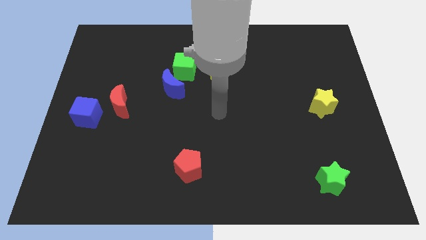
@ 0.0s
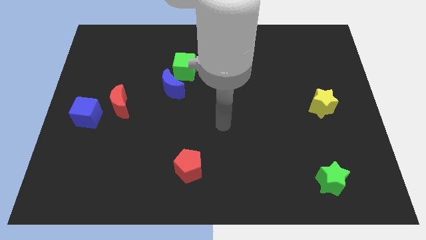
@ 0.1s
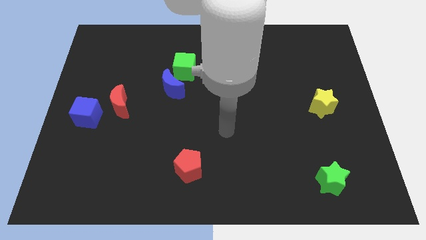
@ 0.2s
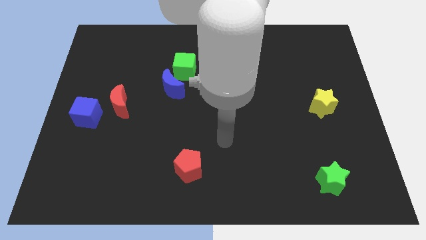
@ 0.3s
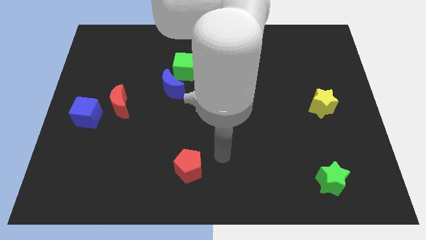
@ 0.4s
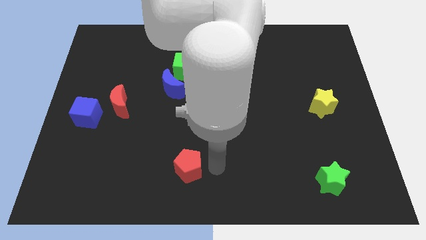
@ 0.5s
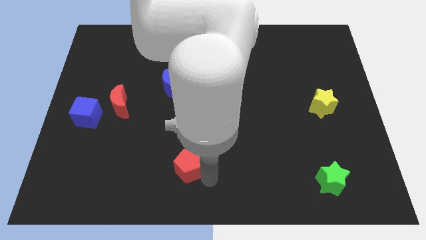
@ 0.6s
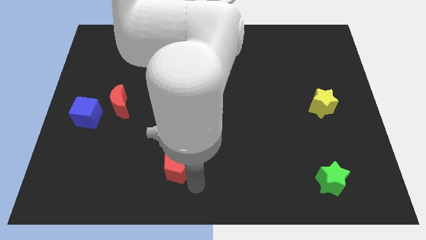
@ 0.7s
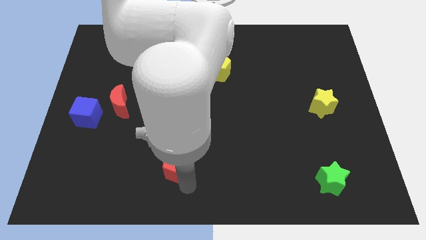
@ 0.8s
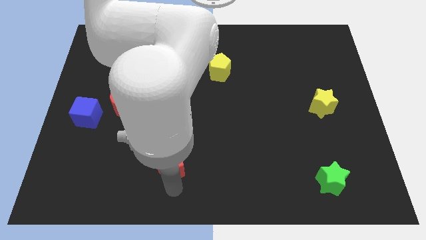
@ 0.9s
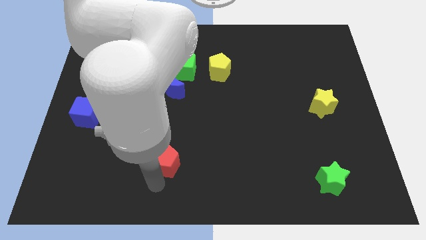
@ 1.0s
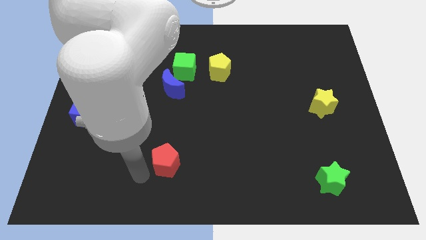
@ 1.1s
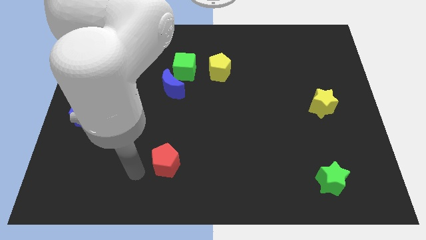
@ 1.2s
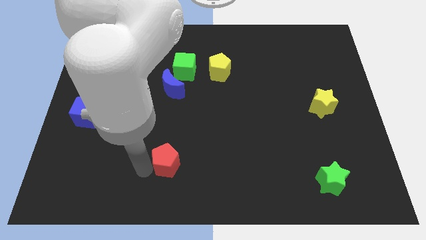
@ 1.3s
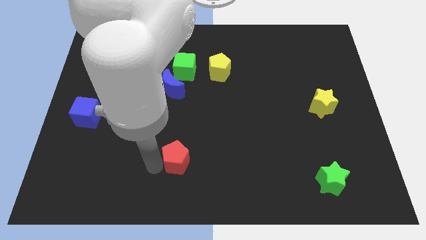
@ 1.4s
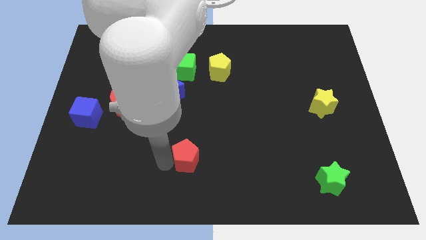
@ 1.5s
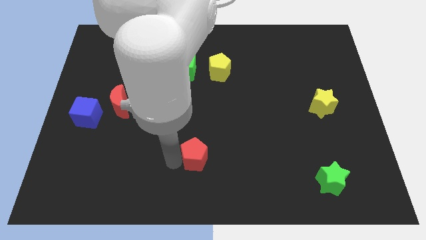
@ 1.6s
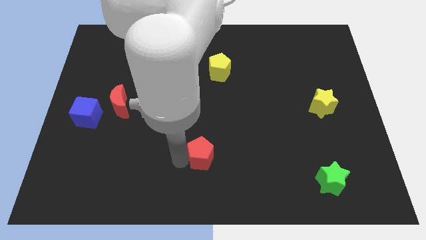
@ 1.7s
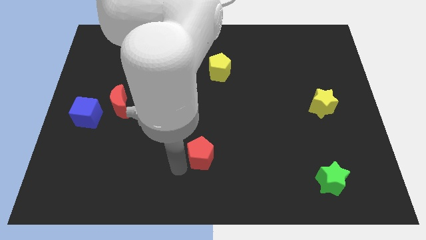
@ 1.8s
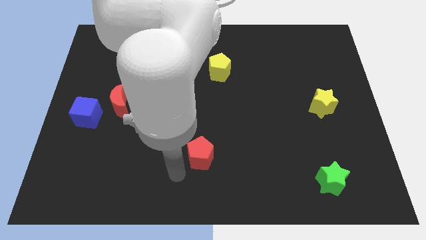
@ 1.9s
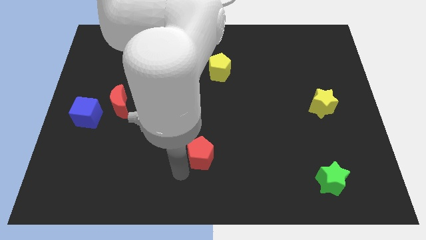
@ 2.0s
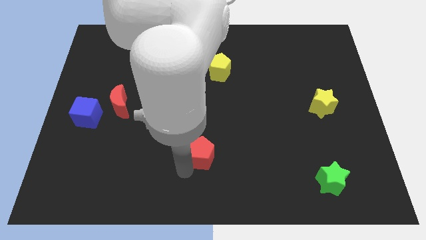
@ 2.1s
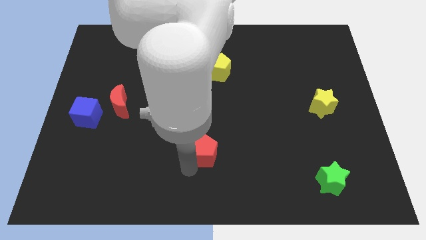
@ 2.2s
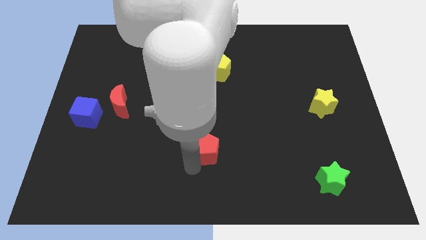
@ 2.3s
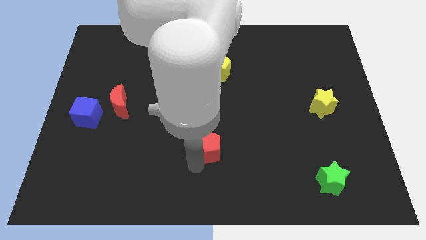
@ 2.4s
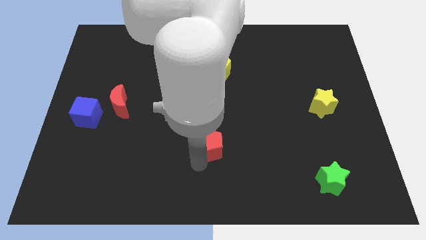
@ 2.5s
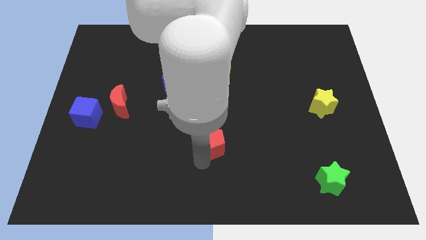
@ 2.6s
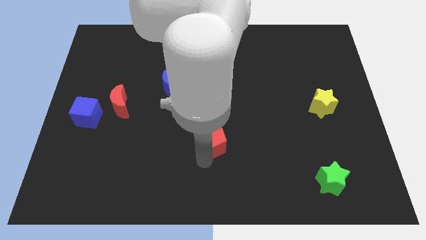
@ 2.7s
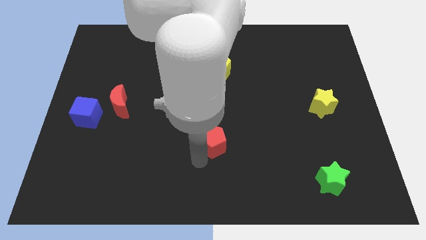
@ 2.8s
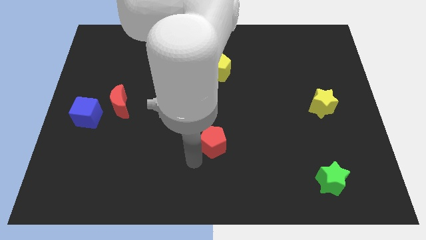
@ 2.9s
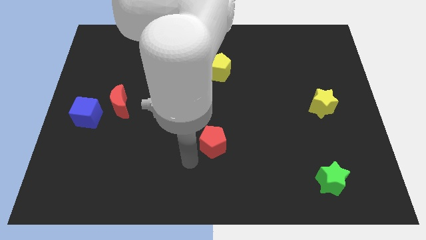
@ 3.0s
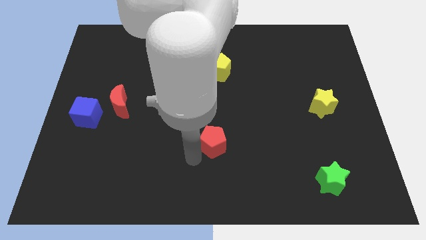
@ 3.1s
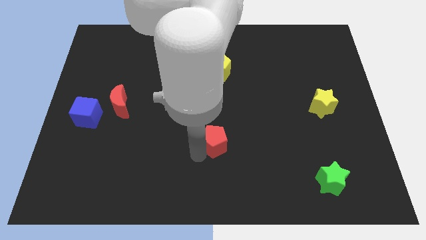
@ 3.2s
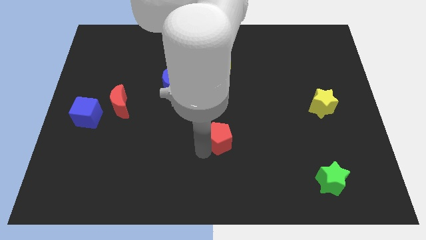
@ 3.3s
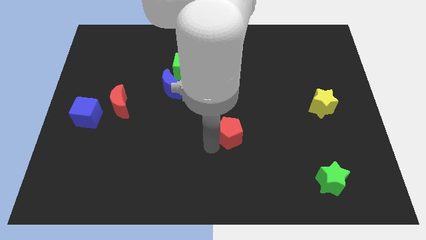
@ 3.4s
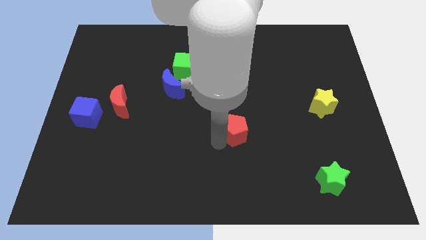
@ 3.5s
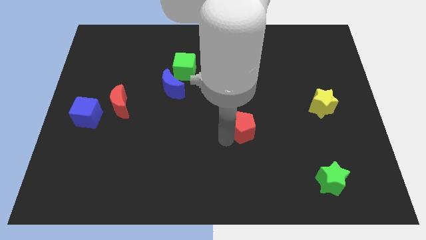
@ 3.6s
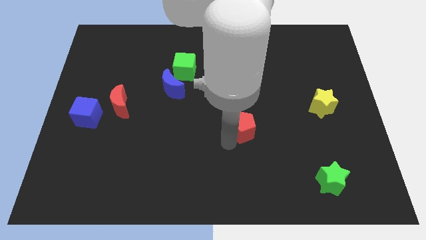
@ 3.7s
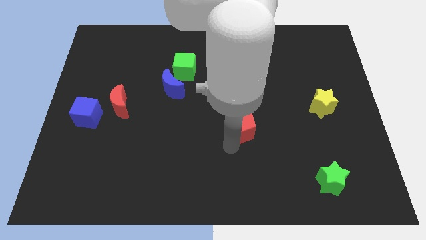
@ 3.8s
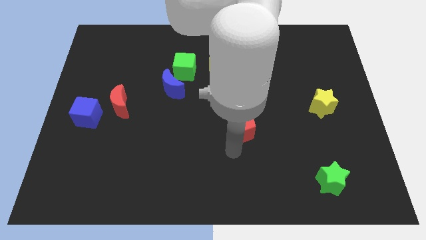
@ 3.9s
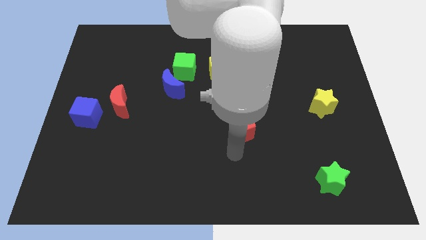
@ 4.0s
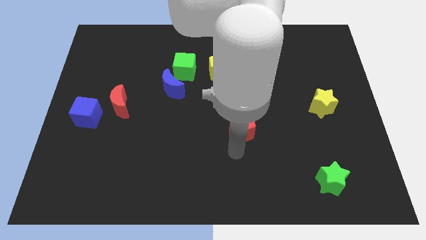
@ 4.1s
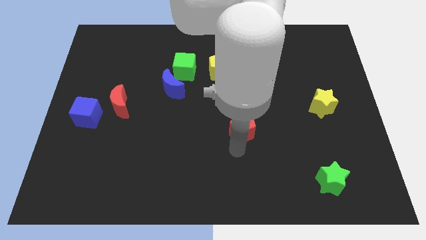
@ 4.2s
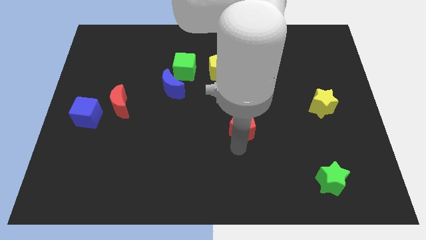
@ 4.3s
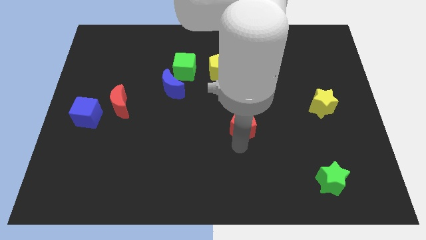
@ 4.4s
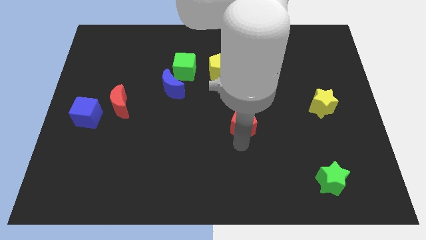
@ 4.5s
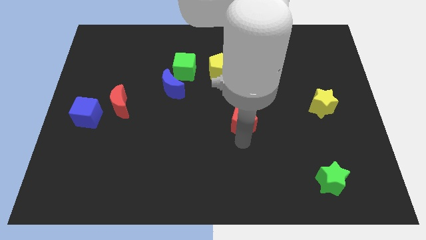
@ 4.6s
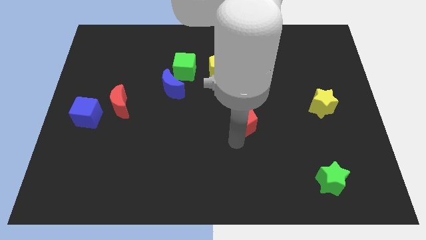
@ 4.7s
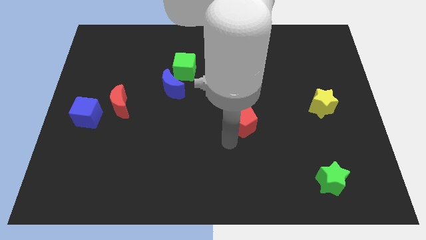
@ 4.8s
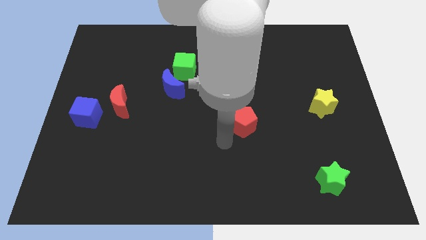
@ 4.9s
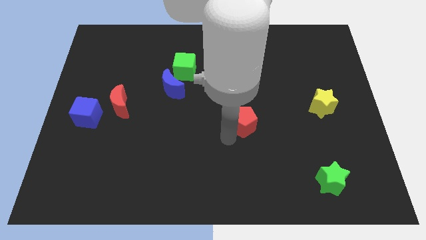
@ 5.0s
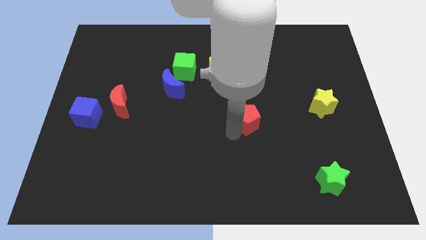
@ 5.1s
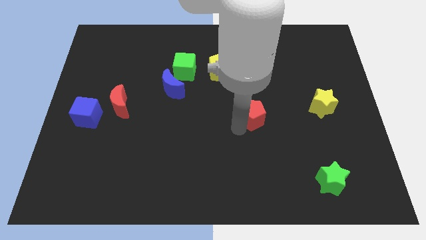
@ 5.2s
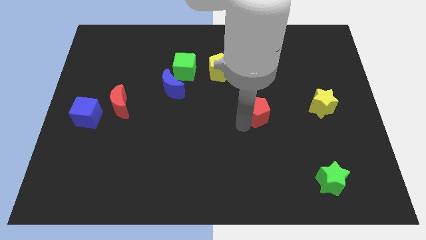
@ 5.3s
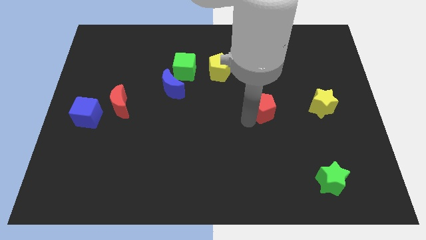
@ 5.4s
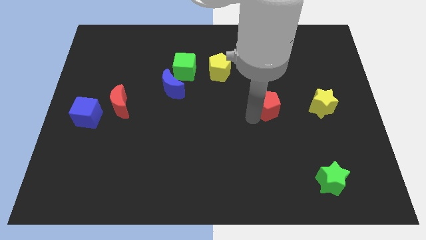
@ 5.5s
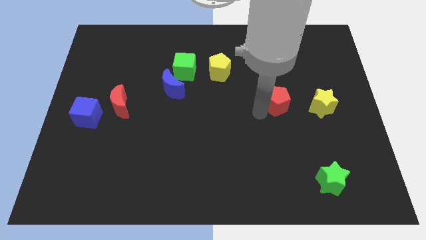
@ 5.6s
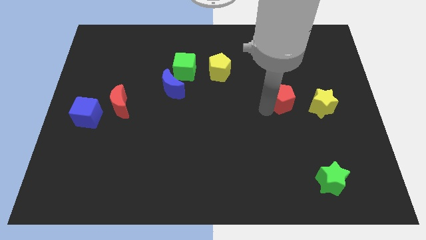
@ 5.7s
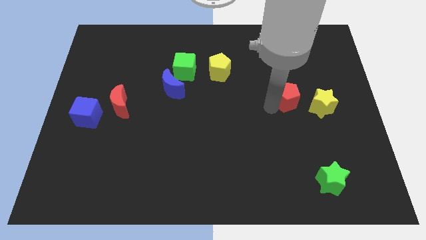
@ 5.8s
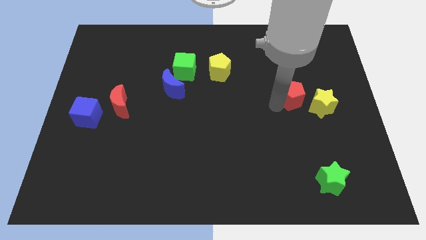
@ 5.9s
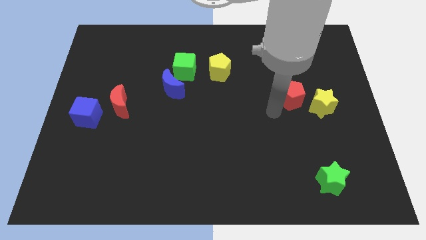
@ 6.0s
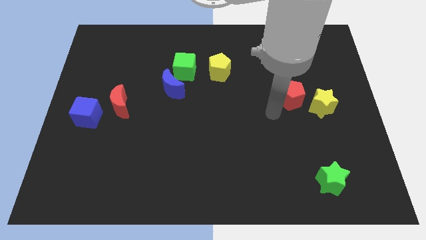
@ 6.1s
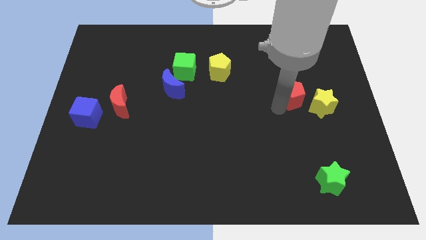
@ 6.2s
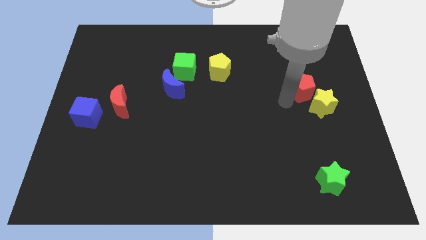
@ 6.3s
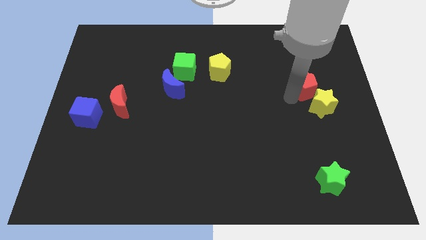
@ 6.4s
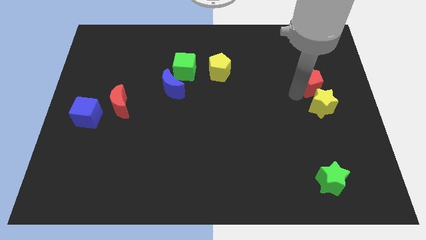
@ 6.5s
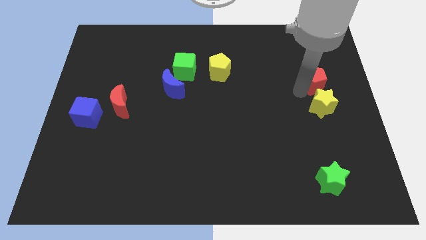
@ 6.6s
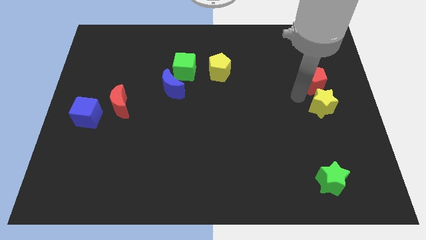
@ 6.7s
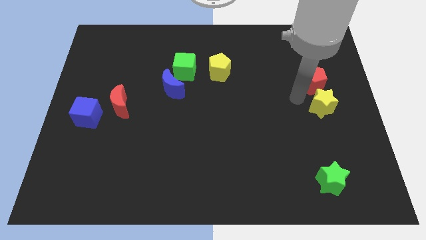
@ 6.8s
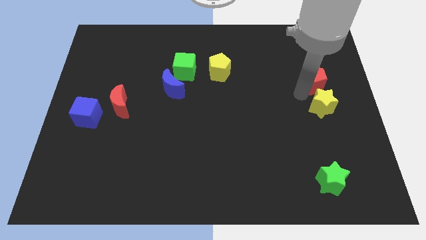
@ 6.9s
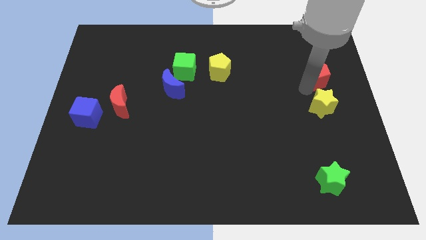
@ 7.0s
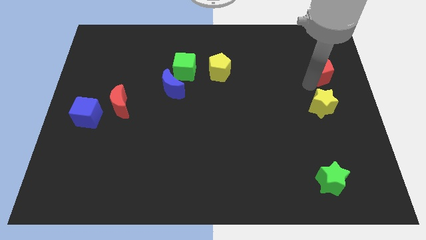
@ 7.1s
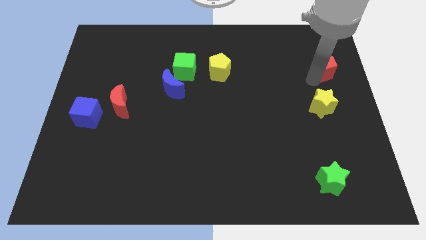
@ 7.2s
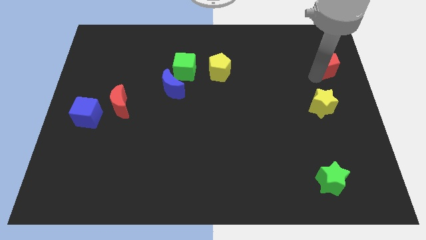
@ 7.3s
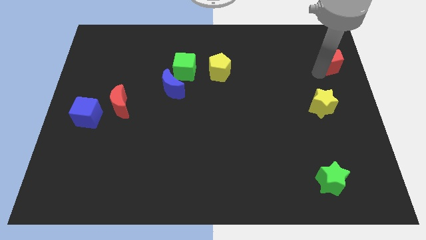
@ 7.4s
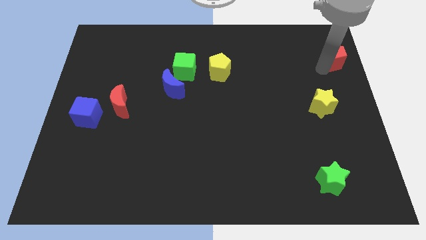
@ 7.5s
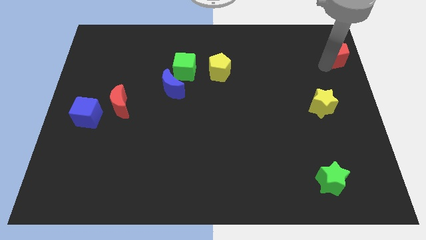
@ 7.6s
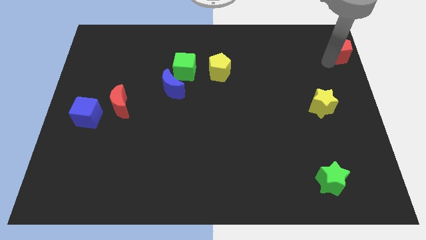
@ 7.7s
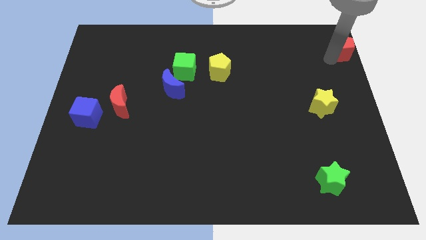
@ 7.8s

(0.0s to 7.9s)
move the red pentagon to the upper right corner
